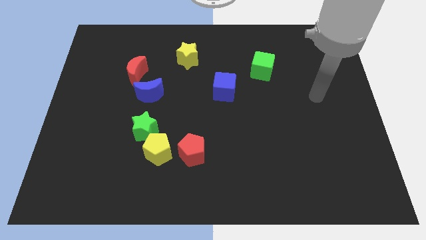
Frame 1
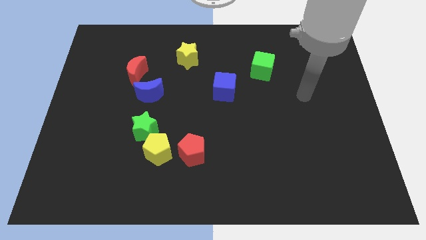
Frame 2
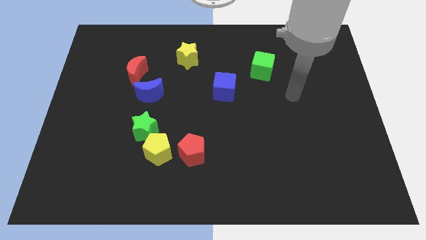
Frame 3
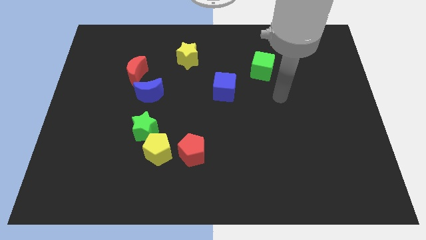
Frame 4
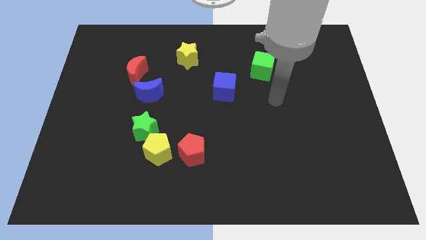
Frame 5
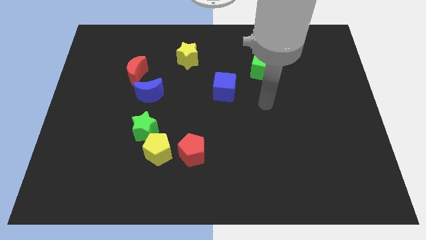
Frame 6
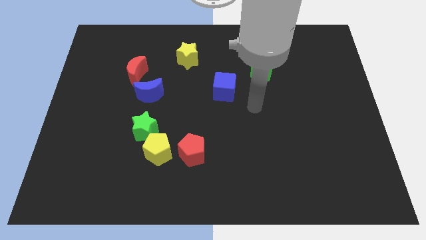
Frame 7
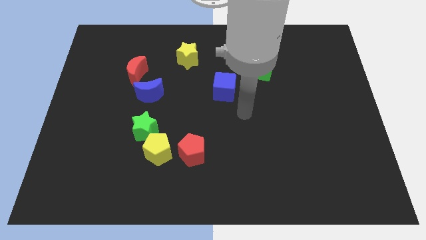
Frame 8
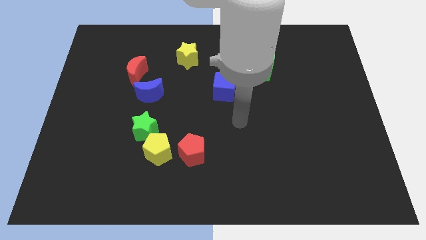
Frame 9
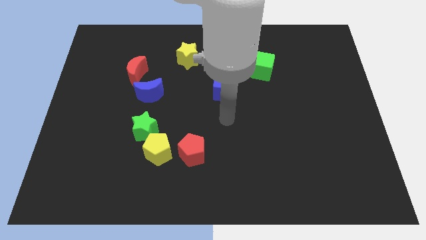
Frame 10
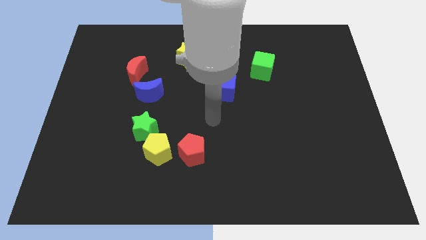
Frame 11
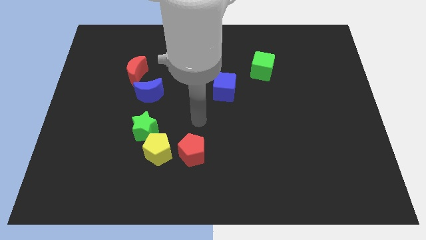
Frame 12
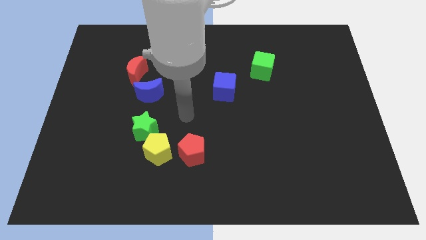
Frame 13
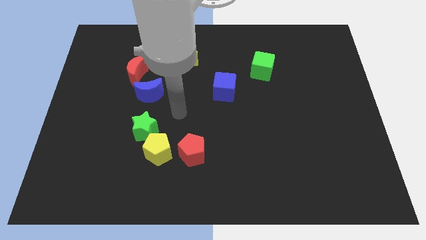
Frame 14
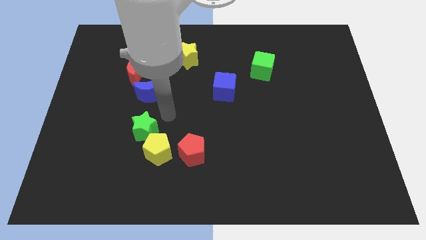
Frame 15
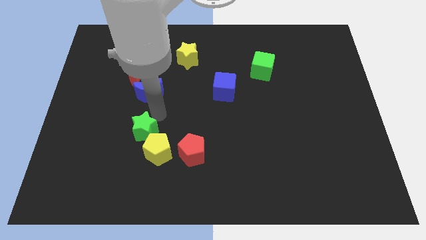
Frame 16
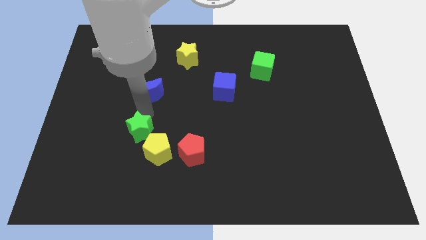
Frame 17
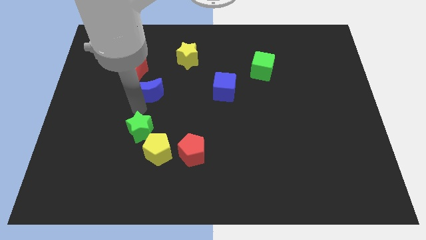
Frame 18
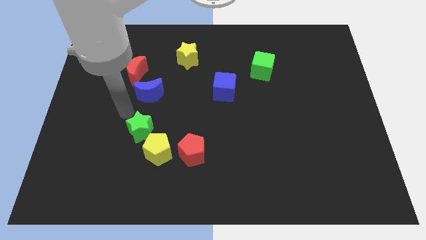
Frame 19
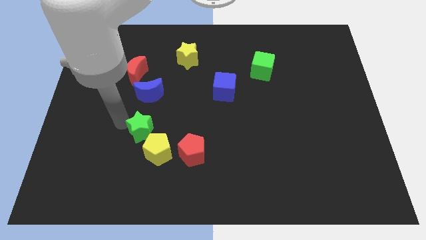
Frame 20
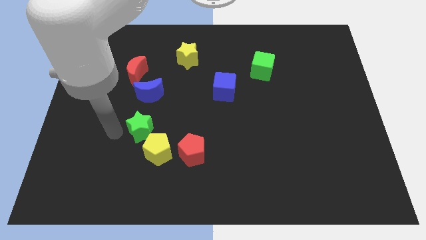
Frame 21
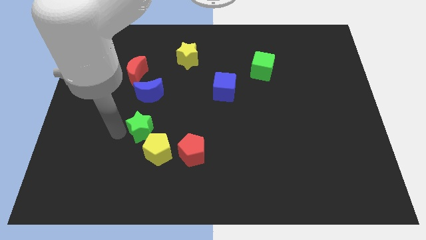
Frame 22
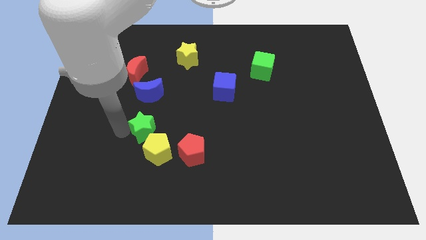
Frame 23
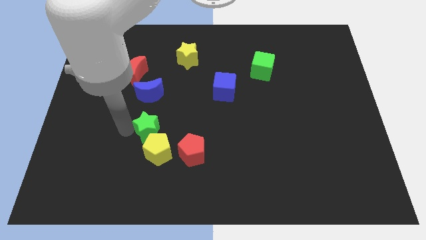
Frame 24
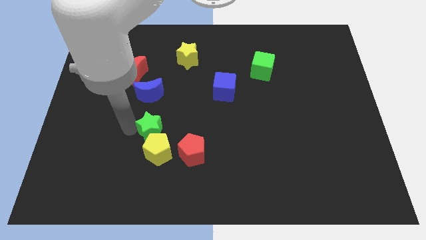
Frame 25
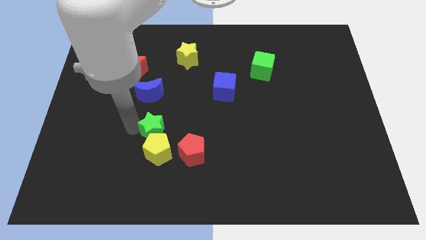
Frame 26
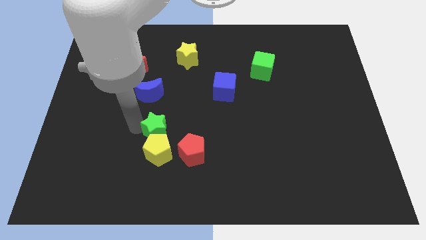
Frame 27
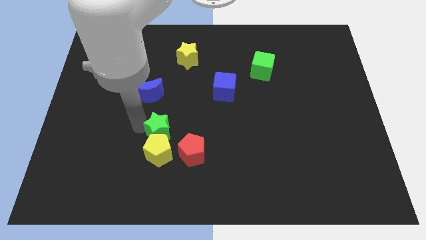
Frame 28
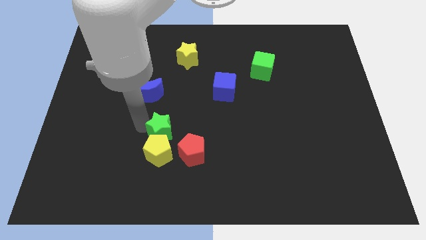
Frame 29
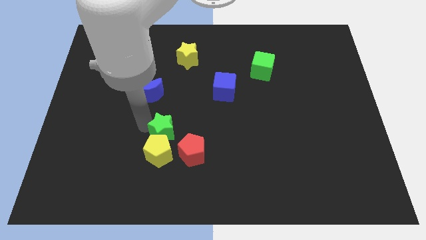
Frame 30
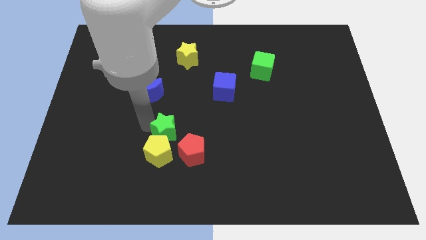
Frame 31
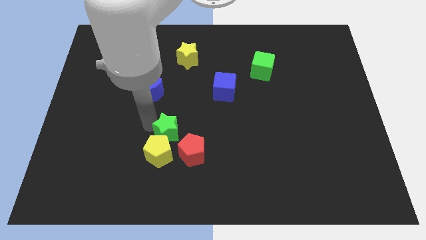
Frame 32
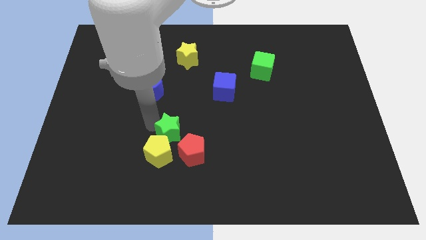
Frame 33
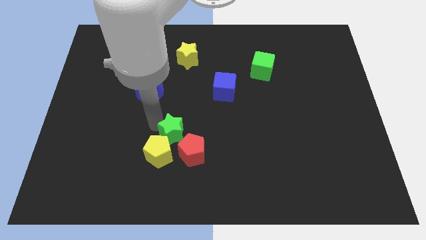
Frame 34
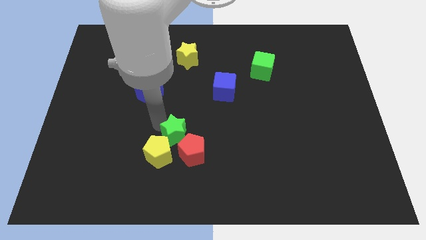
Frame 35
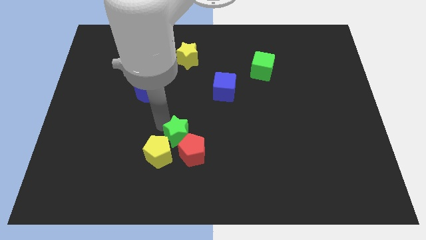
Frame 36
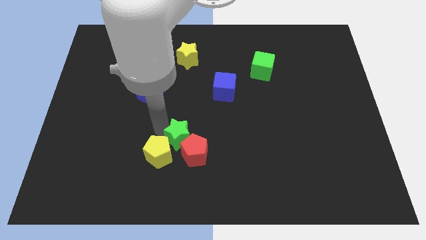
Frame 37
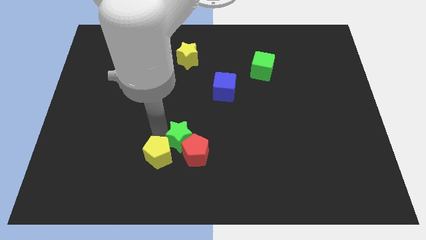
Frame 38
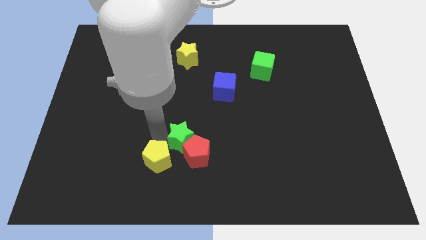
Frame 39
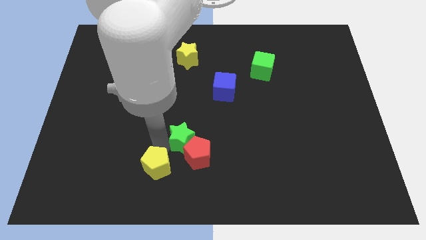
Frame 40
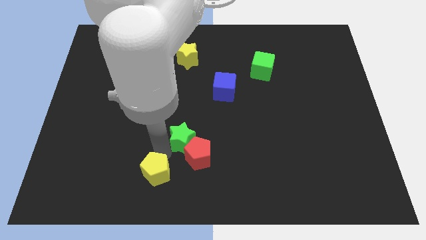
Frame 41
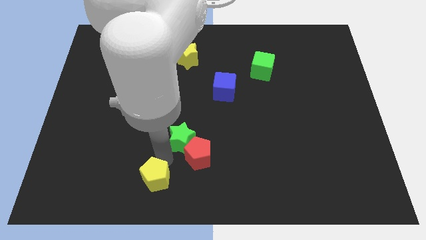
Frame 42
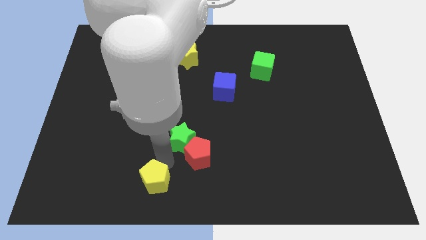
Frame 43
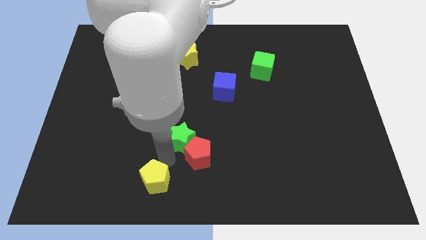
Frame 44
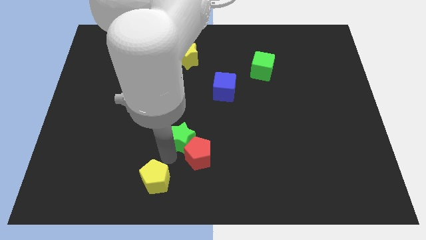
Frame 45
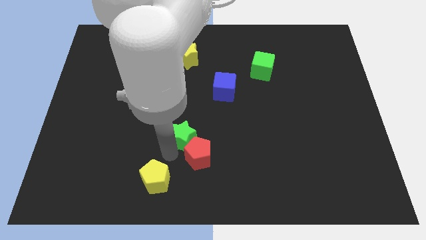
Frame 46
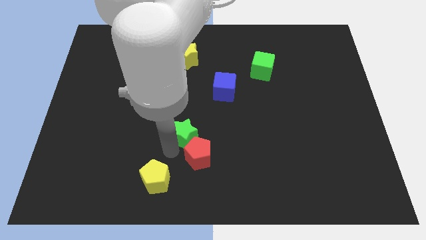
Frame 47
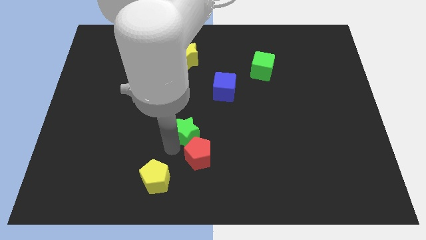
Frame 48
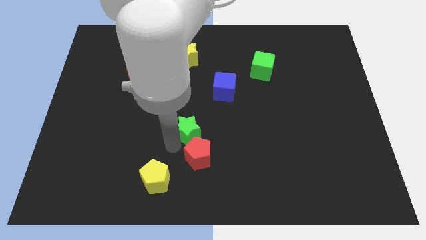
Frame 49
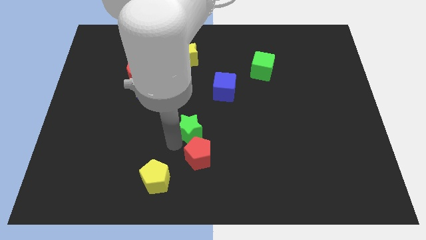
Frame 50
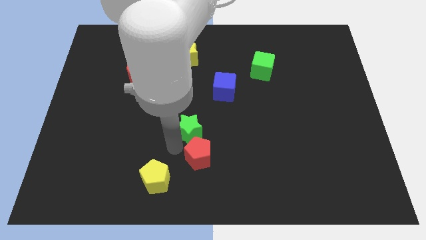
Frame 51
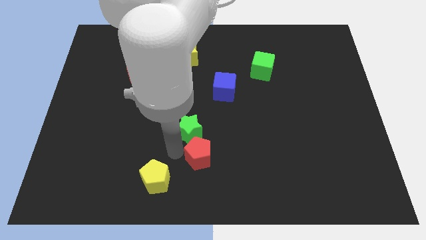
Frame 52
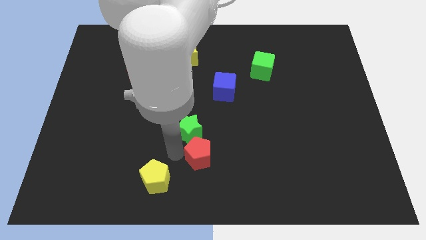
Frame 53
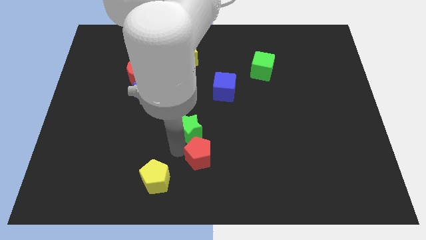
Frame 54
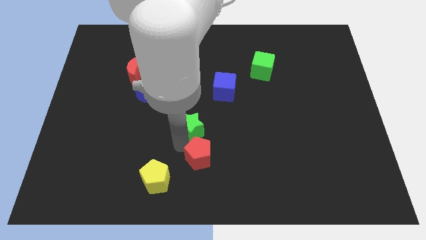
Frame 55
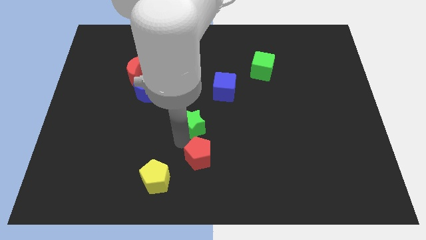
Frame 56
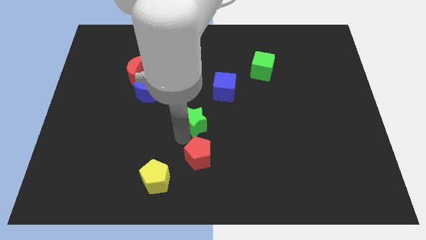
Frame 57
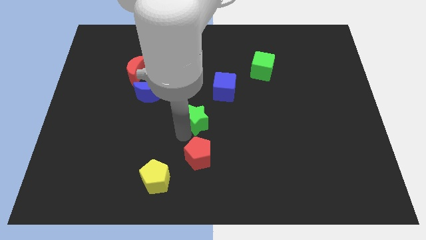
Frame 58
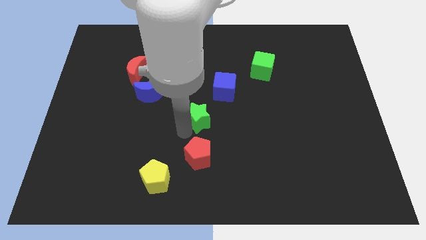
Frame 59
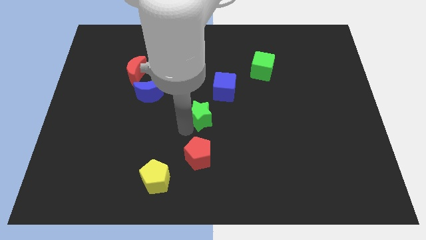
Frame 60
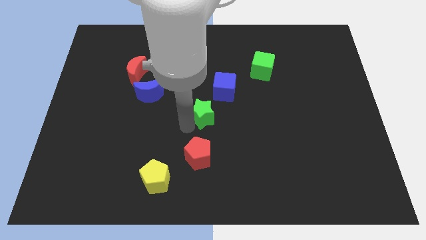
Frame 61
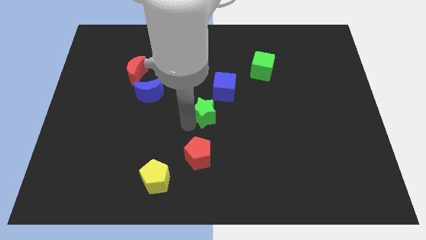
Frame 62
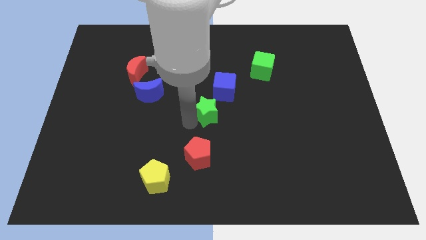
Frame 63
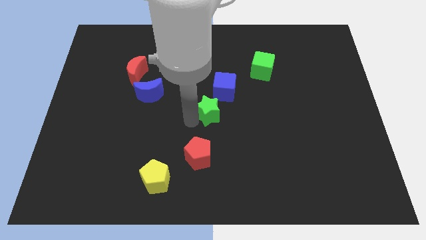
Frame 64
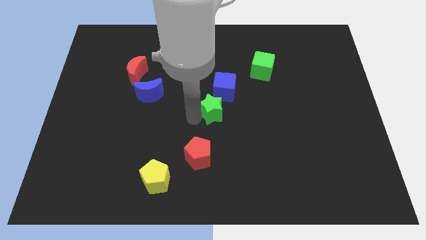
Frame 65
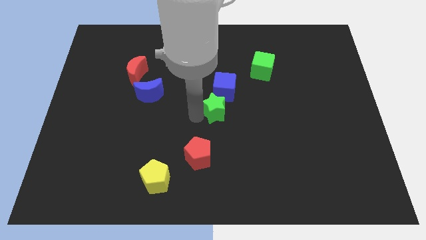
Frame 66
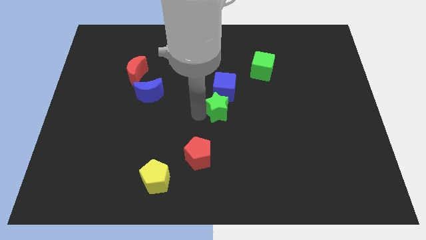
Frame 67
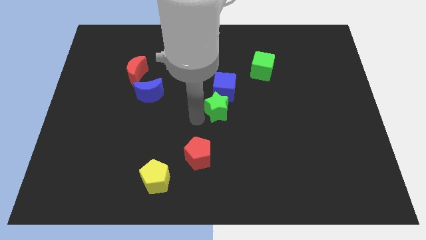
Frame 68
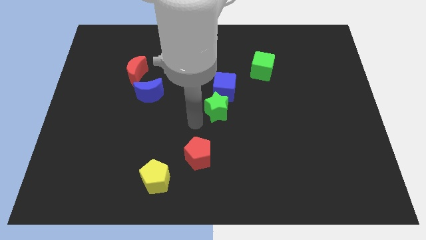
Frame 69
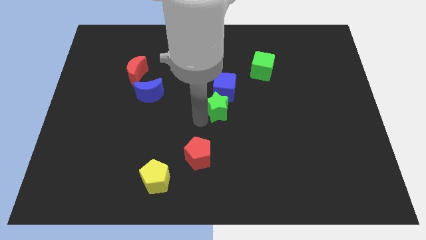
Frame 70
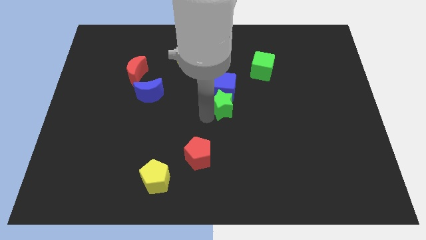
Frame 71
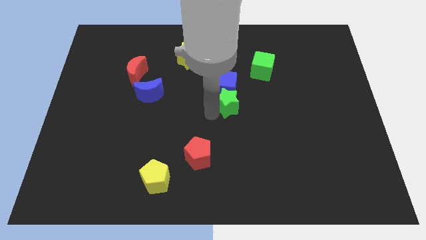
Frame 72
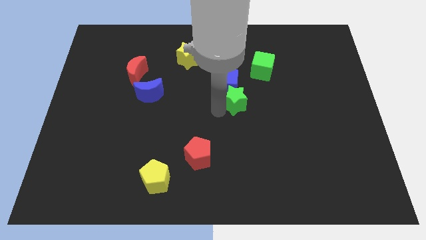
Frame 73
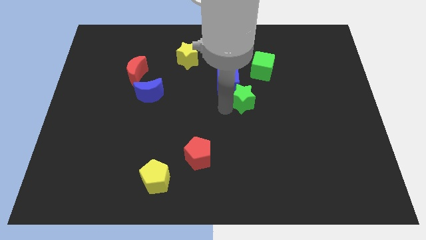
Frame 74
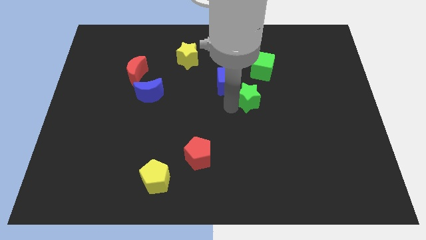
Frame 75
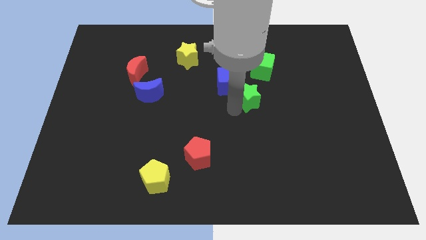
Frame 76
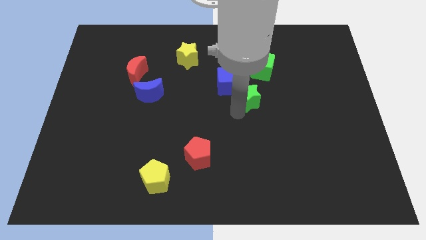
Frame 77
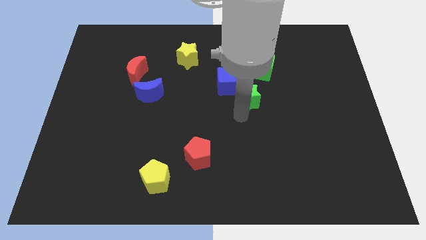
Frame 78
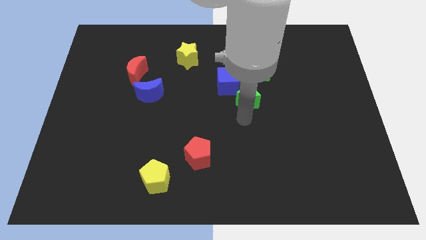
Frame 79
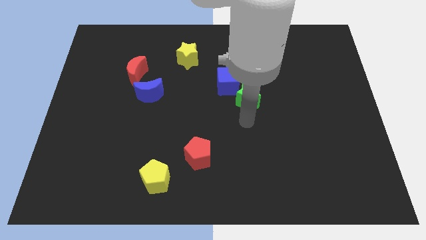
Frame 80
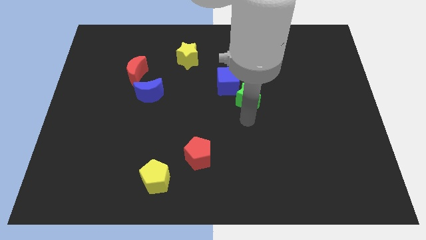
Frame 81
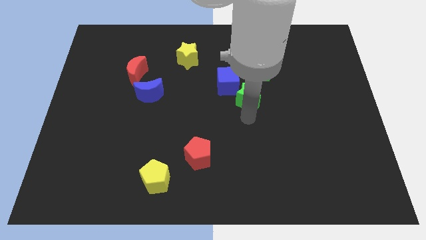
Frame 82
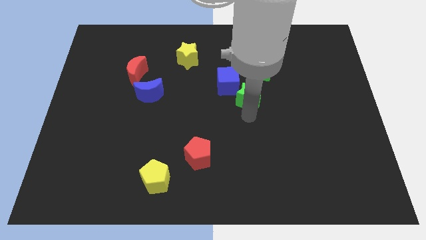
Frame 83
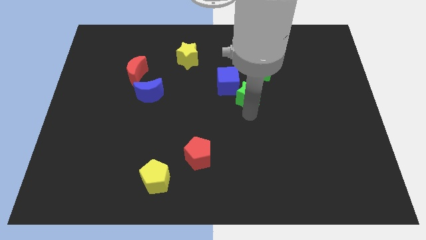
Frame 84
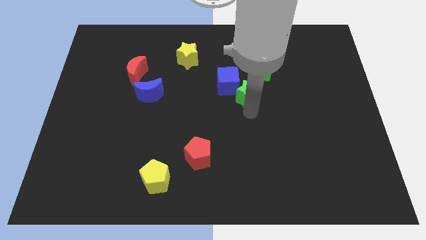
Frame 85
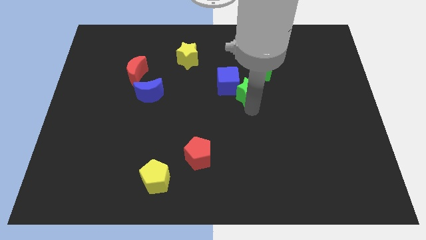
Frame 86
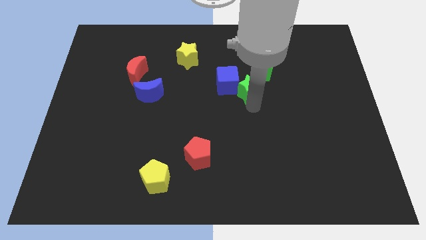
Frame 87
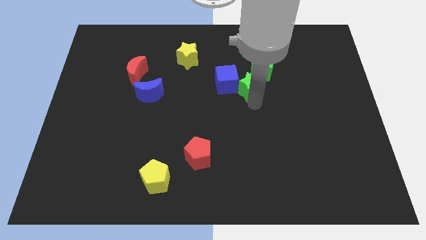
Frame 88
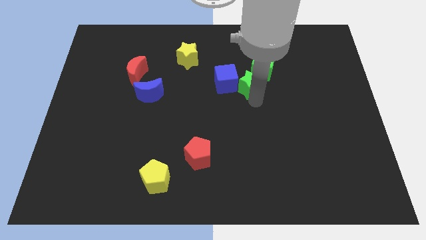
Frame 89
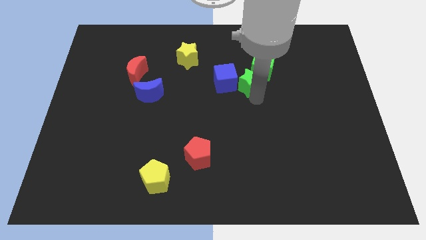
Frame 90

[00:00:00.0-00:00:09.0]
push the green star close to the green cube
